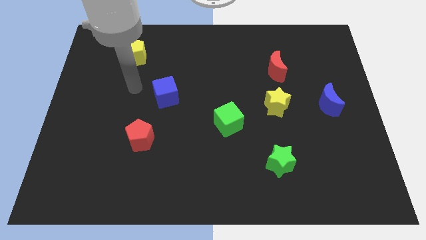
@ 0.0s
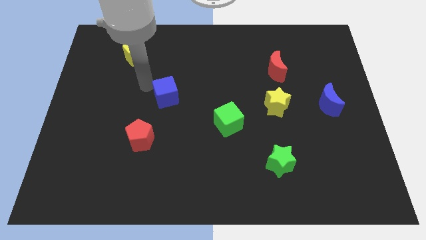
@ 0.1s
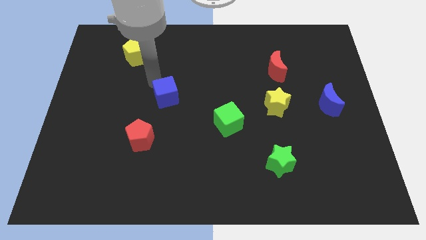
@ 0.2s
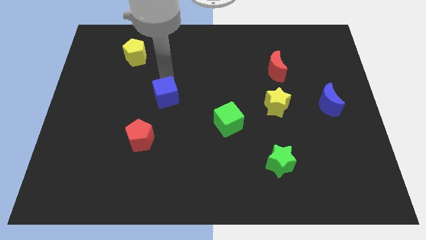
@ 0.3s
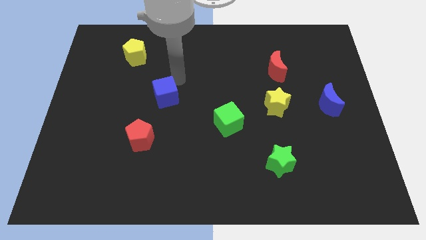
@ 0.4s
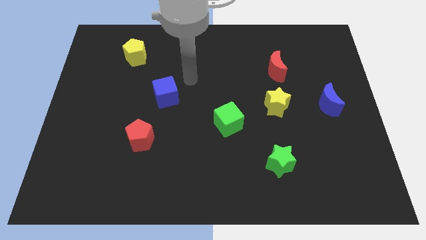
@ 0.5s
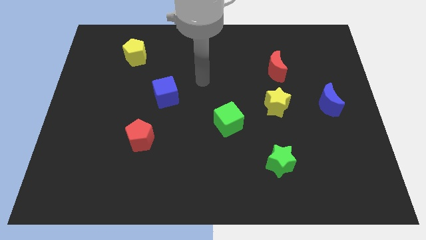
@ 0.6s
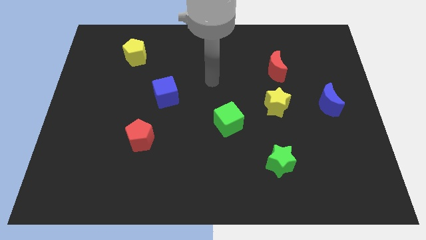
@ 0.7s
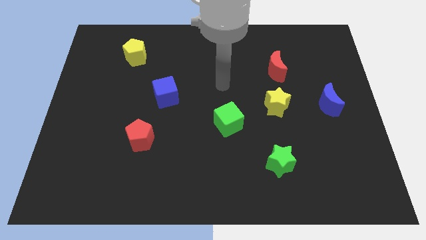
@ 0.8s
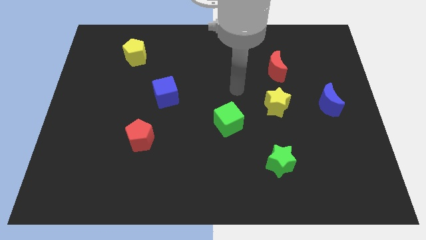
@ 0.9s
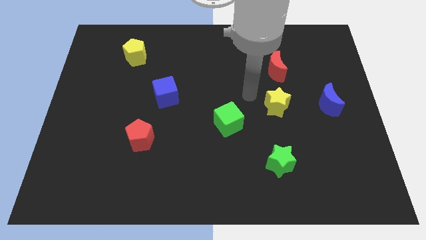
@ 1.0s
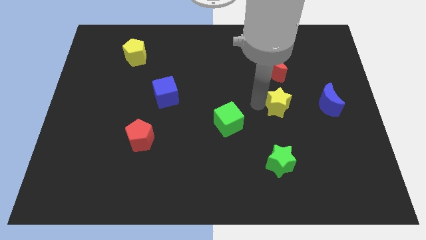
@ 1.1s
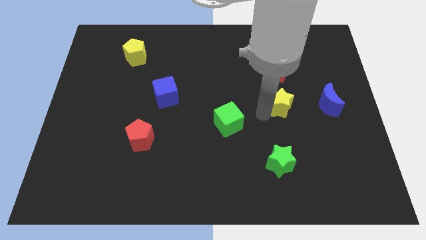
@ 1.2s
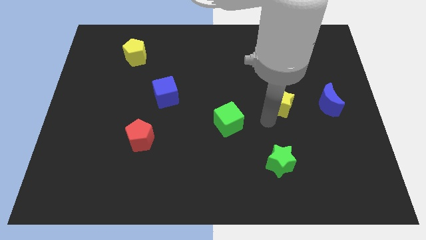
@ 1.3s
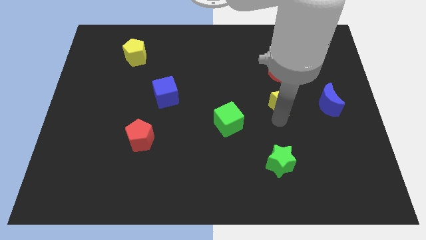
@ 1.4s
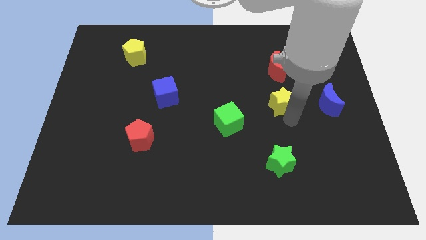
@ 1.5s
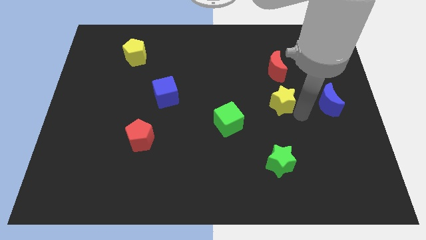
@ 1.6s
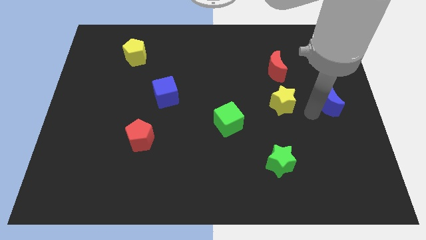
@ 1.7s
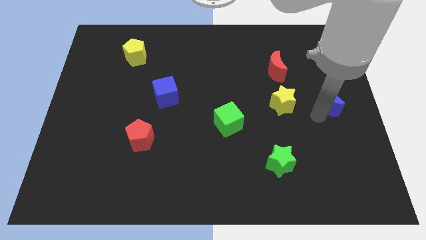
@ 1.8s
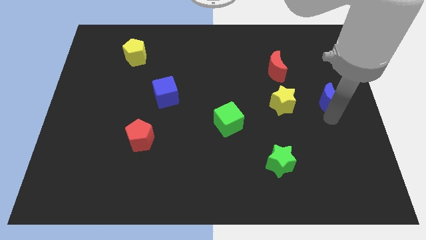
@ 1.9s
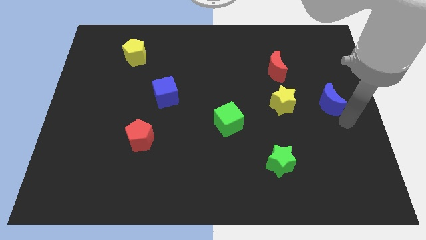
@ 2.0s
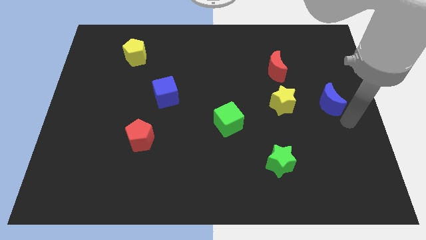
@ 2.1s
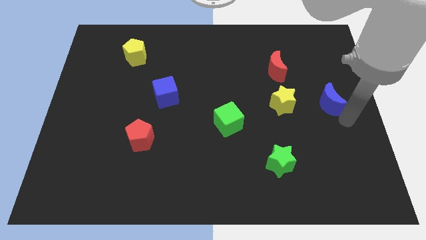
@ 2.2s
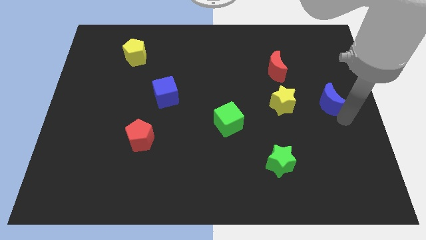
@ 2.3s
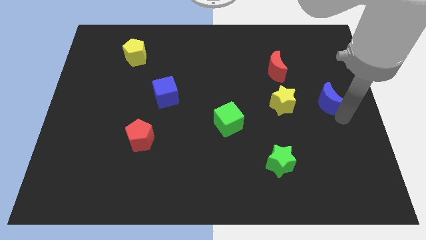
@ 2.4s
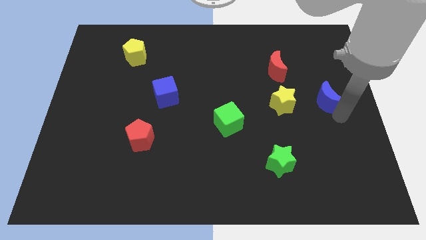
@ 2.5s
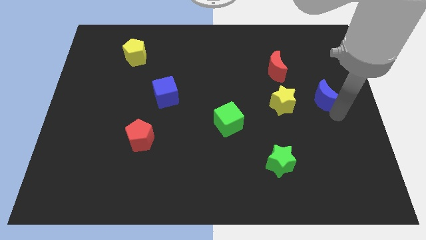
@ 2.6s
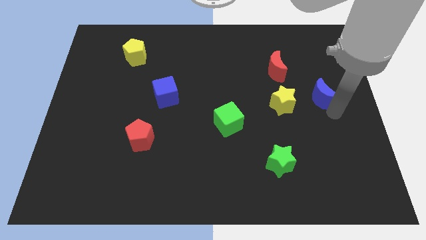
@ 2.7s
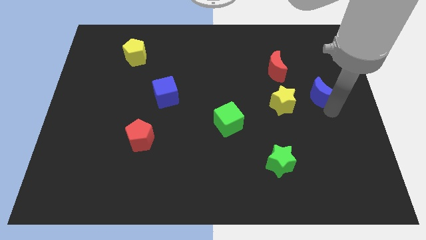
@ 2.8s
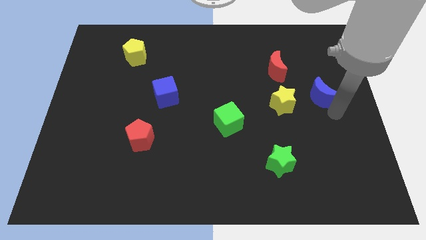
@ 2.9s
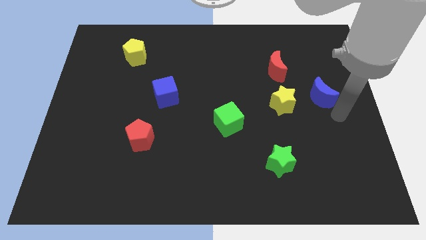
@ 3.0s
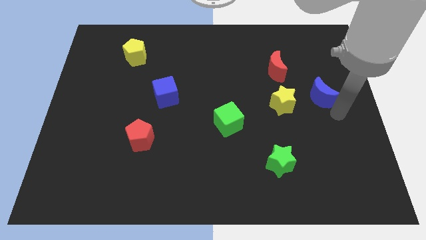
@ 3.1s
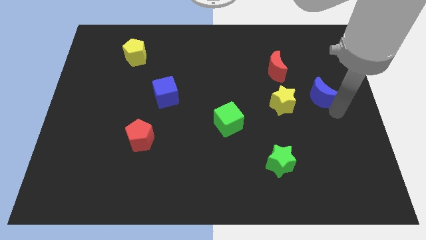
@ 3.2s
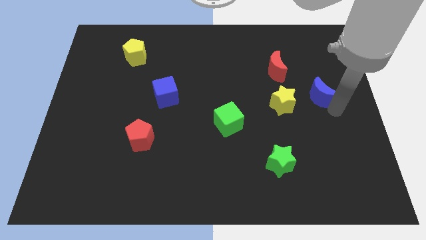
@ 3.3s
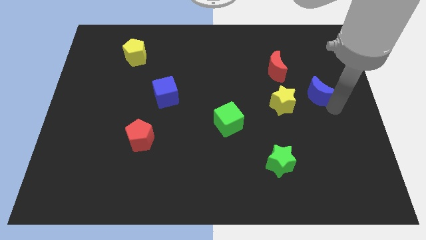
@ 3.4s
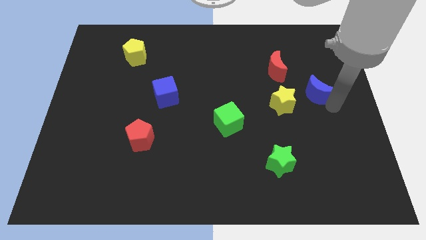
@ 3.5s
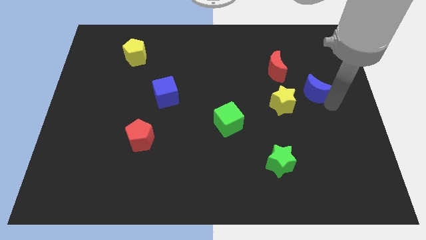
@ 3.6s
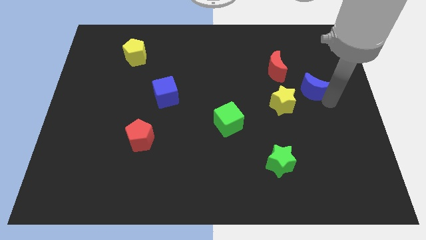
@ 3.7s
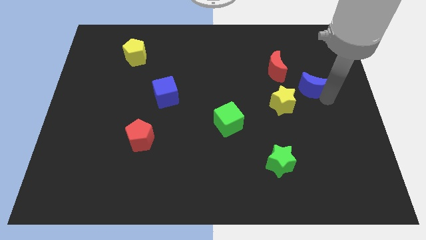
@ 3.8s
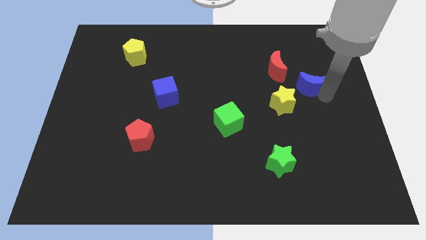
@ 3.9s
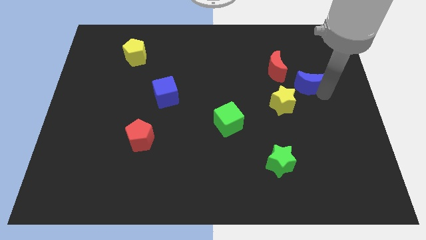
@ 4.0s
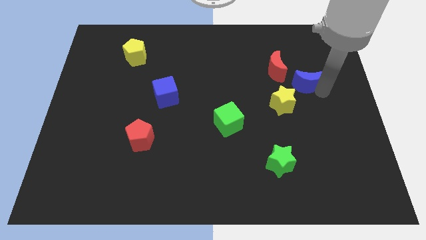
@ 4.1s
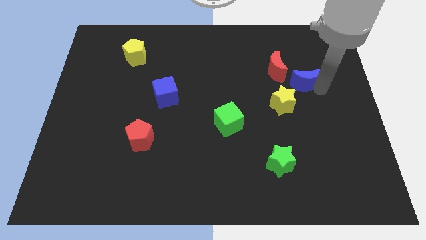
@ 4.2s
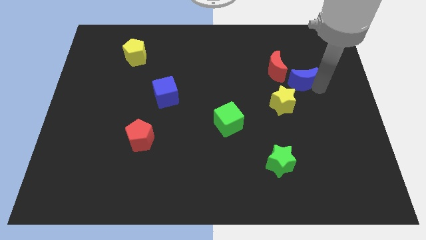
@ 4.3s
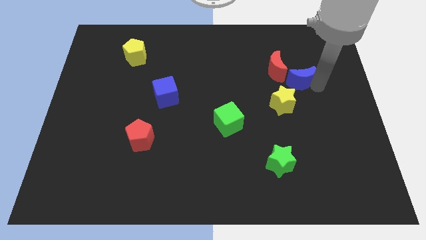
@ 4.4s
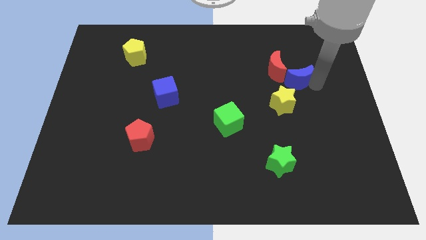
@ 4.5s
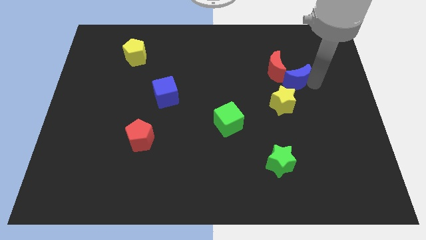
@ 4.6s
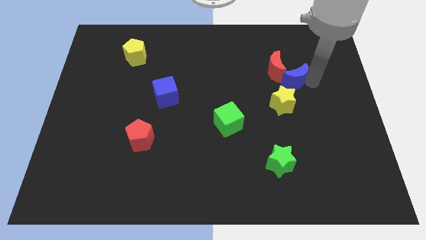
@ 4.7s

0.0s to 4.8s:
slide the blue moon towards the red moon

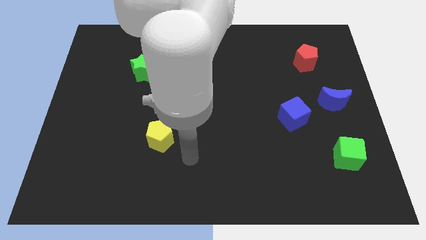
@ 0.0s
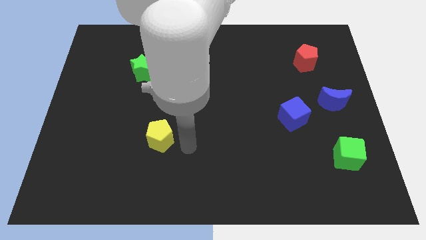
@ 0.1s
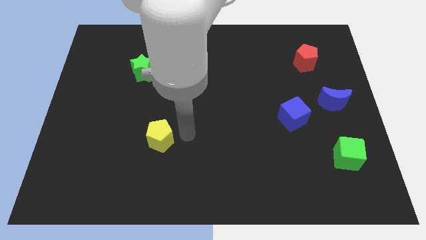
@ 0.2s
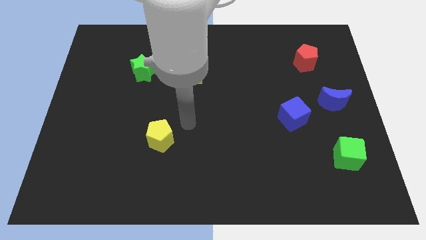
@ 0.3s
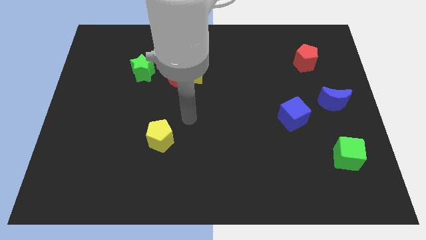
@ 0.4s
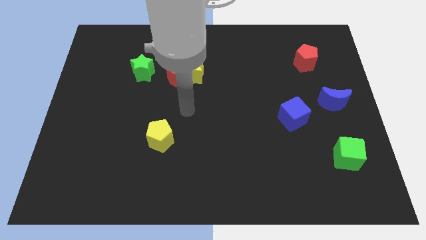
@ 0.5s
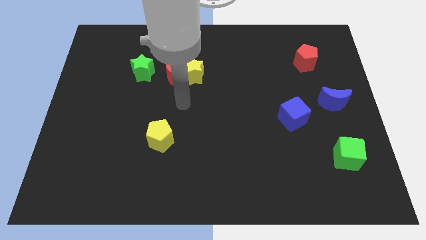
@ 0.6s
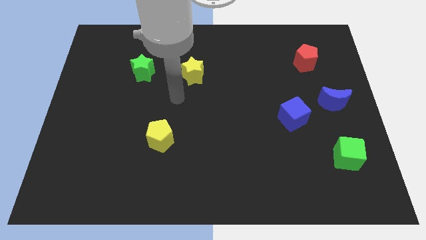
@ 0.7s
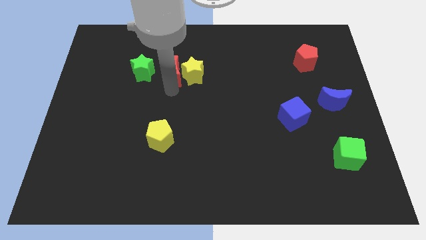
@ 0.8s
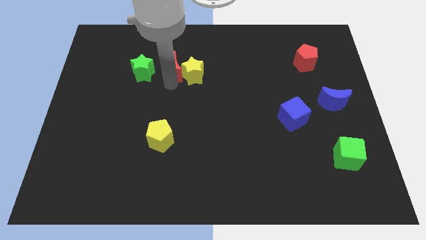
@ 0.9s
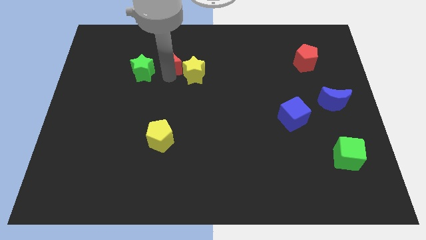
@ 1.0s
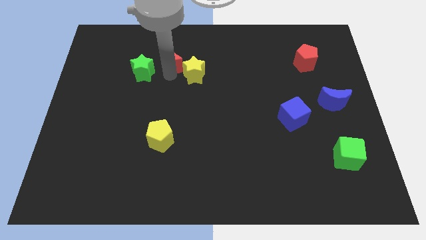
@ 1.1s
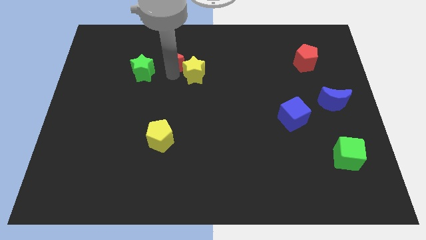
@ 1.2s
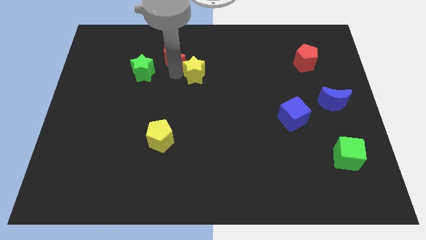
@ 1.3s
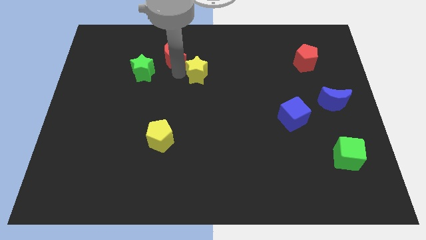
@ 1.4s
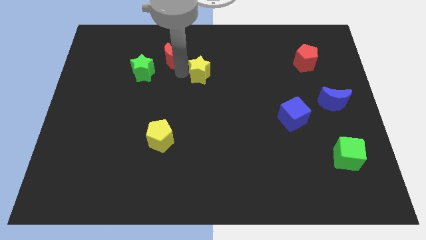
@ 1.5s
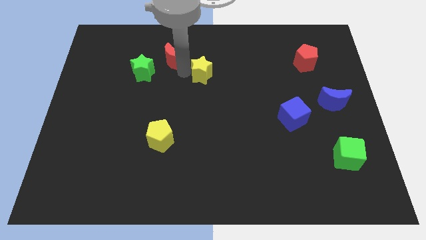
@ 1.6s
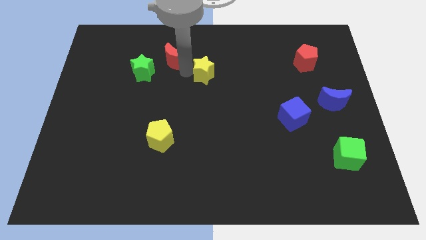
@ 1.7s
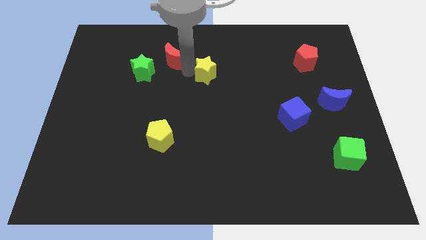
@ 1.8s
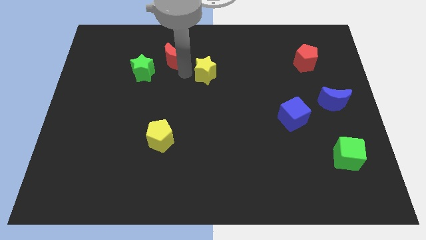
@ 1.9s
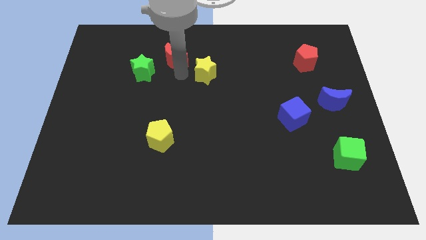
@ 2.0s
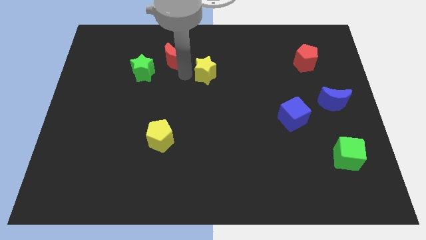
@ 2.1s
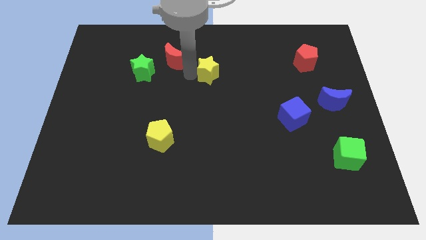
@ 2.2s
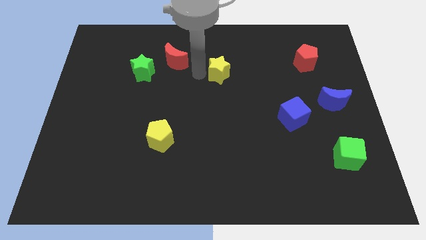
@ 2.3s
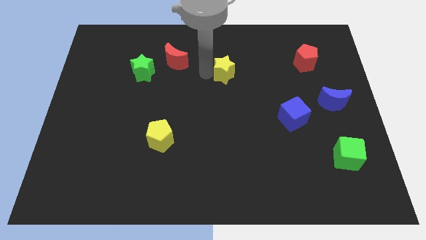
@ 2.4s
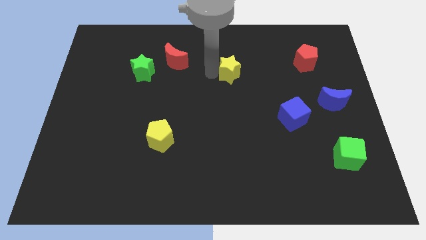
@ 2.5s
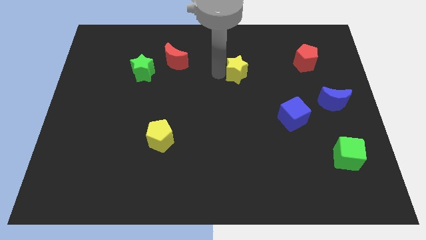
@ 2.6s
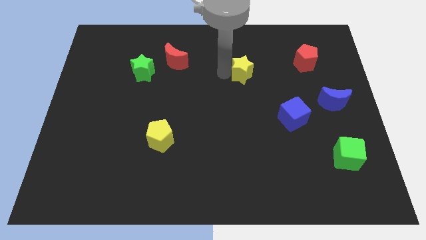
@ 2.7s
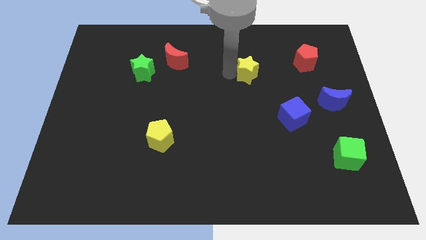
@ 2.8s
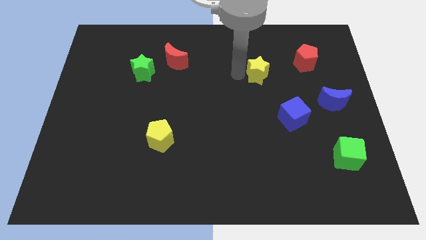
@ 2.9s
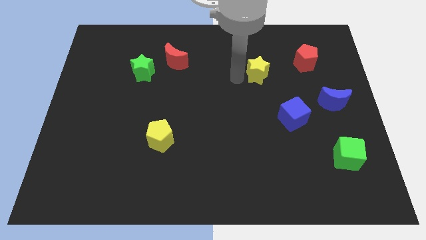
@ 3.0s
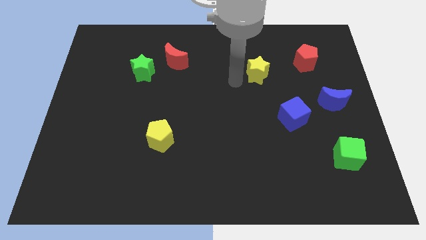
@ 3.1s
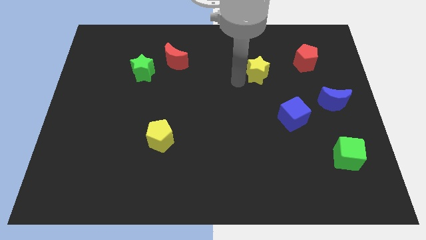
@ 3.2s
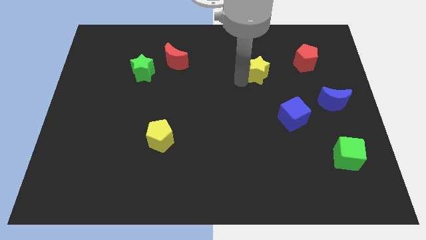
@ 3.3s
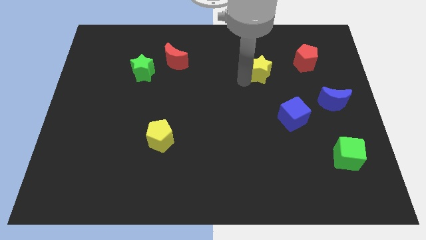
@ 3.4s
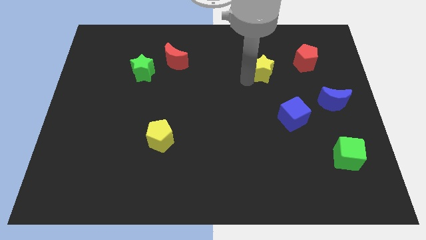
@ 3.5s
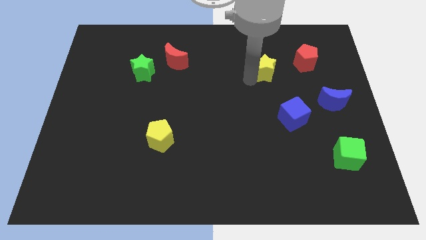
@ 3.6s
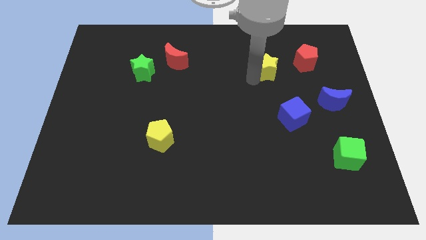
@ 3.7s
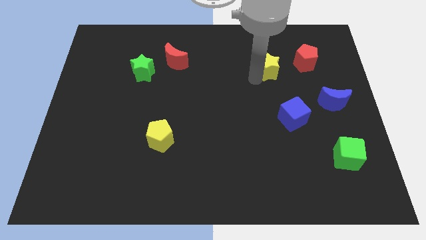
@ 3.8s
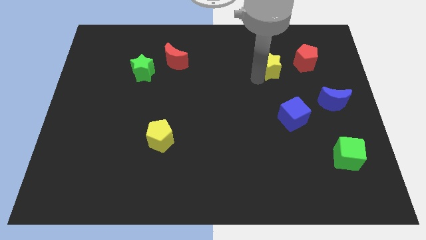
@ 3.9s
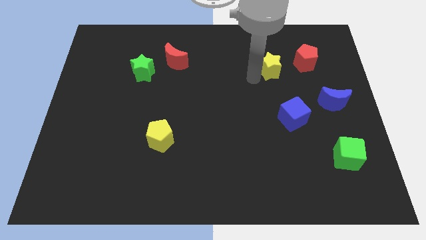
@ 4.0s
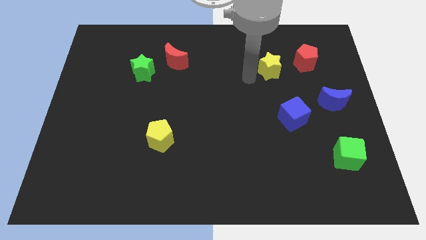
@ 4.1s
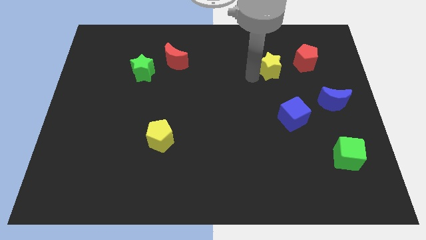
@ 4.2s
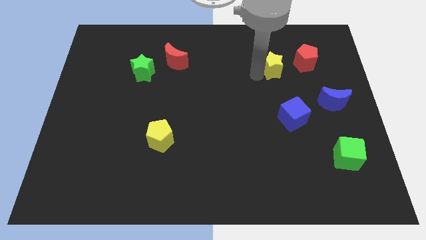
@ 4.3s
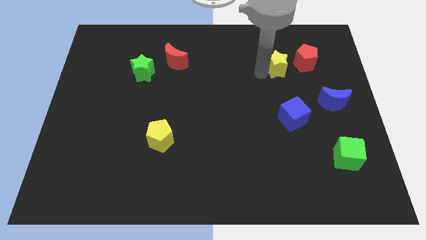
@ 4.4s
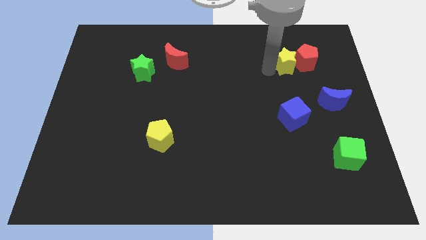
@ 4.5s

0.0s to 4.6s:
push the yellow star close to the red pentagon
